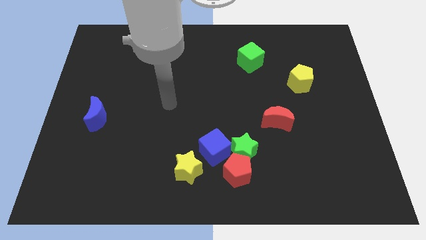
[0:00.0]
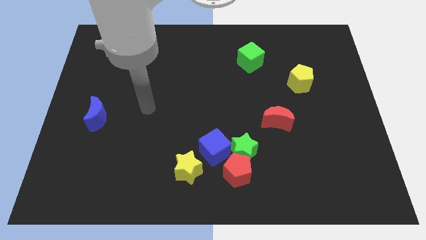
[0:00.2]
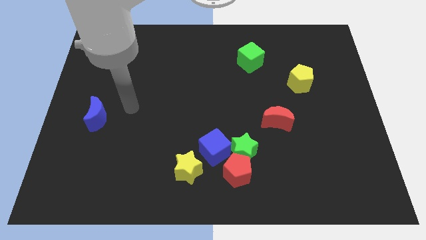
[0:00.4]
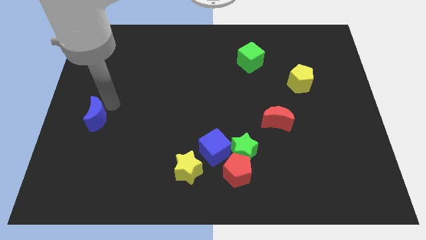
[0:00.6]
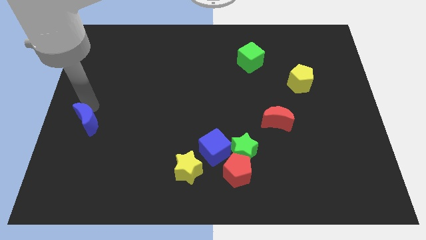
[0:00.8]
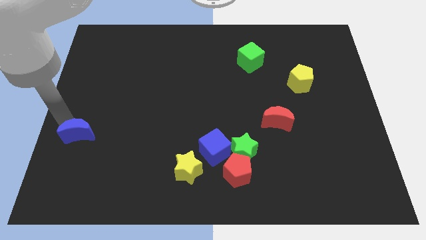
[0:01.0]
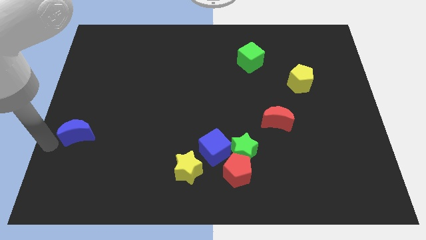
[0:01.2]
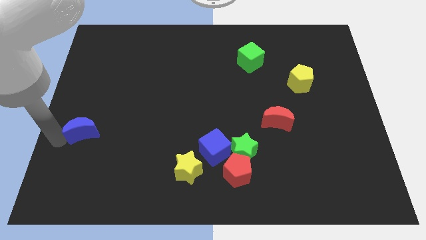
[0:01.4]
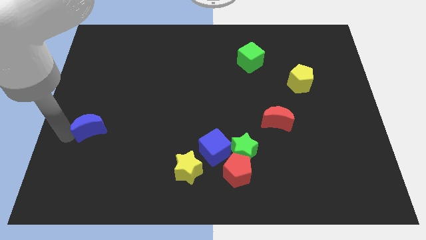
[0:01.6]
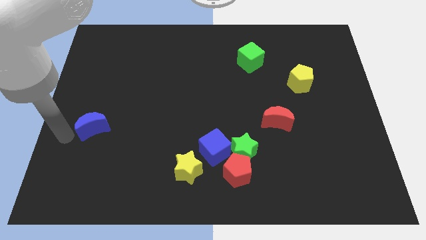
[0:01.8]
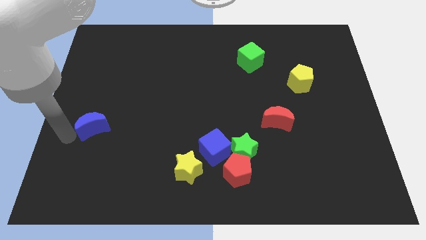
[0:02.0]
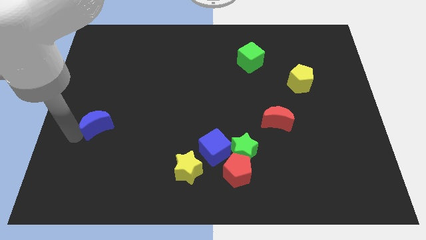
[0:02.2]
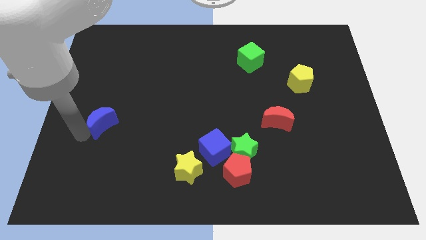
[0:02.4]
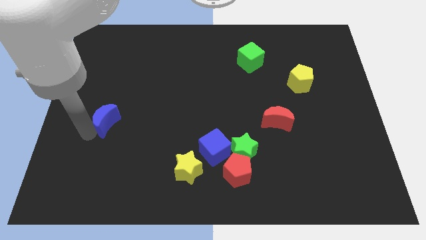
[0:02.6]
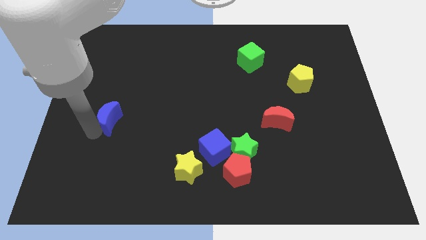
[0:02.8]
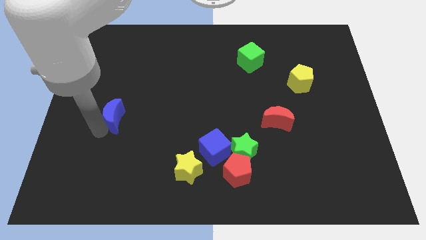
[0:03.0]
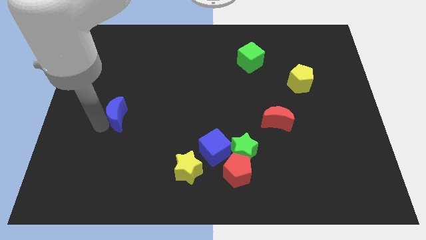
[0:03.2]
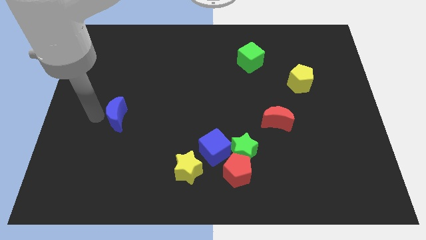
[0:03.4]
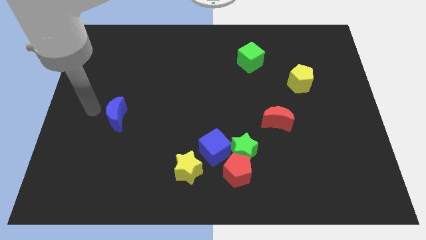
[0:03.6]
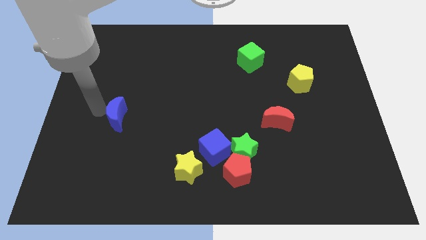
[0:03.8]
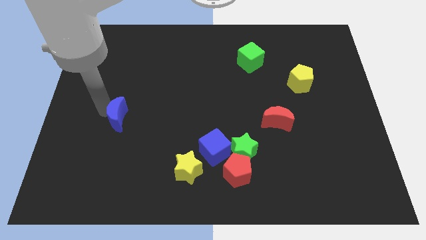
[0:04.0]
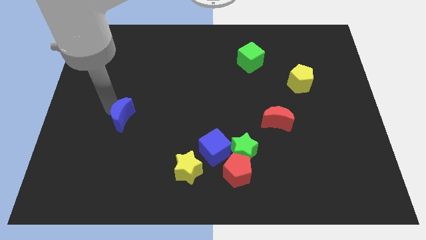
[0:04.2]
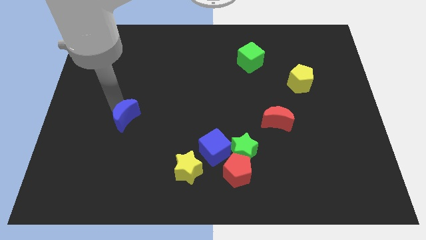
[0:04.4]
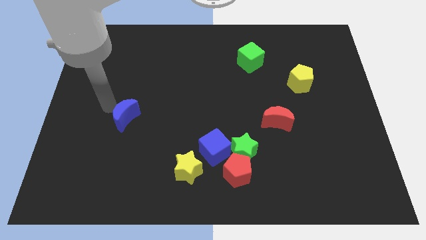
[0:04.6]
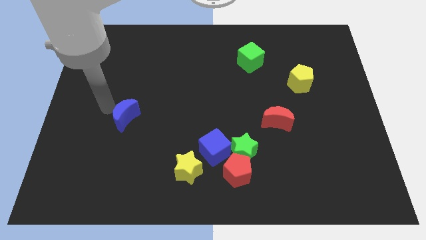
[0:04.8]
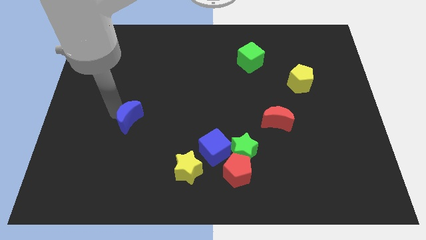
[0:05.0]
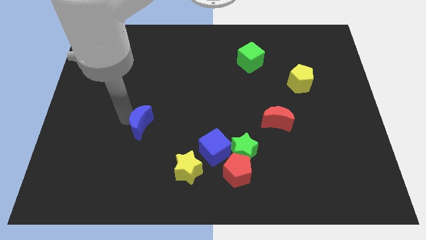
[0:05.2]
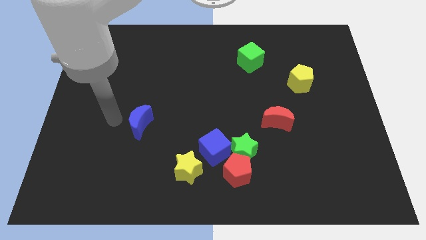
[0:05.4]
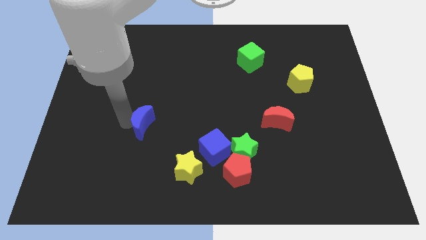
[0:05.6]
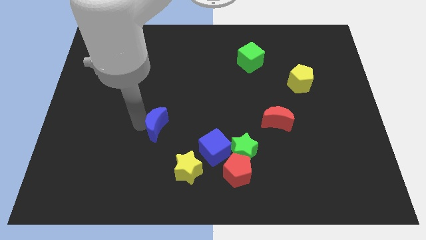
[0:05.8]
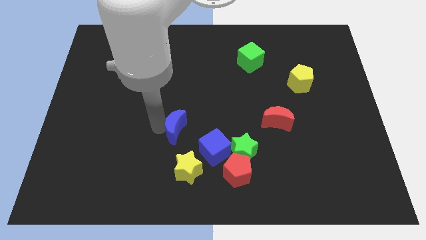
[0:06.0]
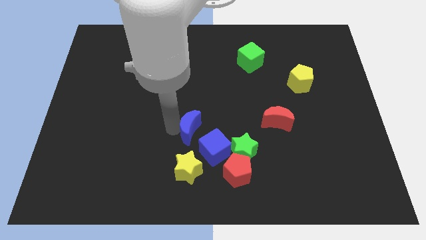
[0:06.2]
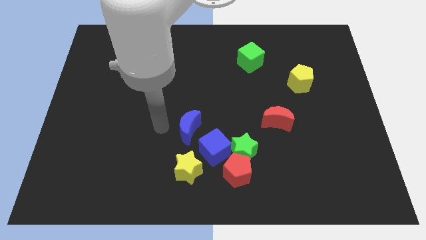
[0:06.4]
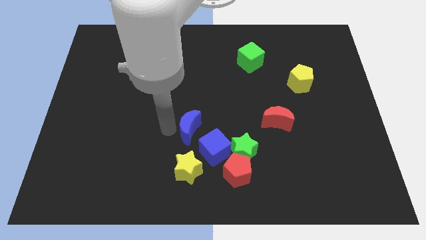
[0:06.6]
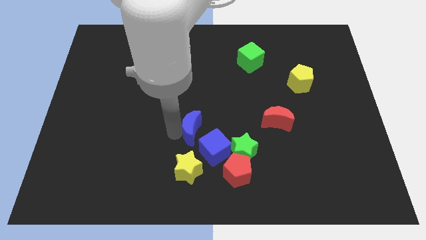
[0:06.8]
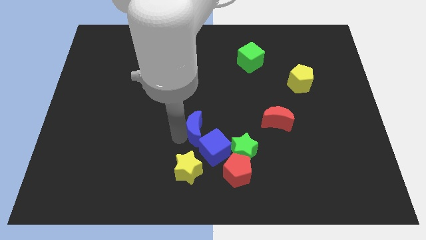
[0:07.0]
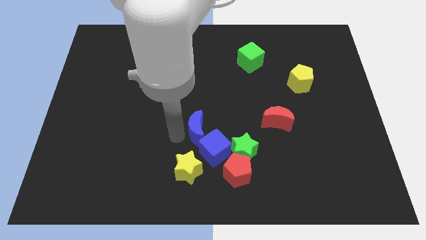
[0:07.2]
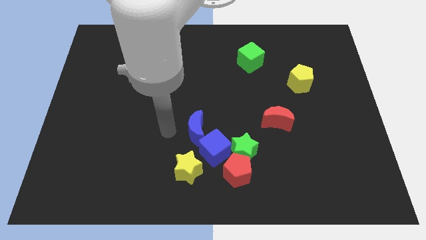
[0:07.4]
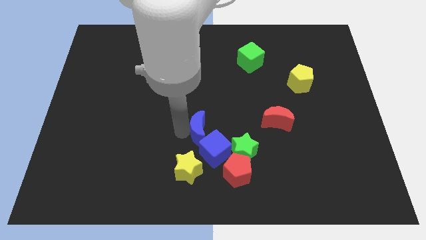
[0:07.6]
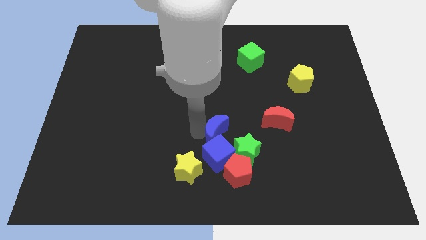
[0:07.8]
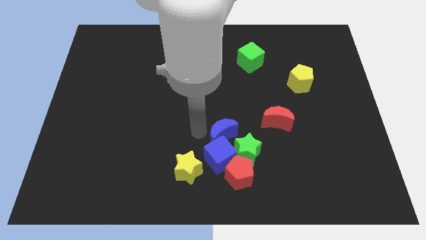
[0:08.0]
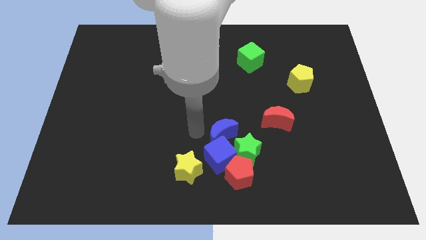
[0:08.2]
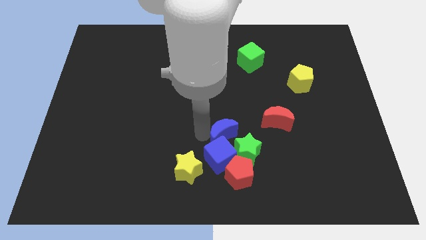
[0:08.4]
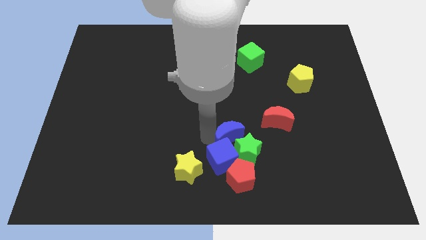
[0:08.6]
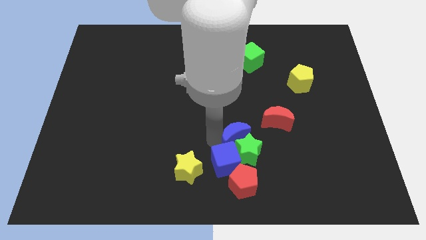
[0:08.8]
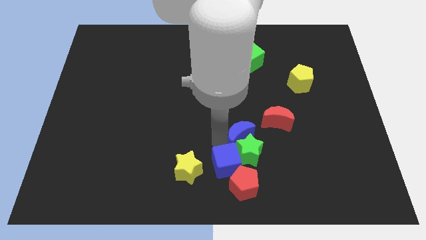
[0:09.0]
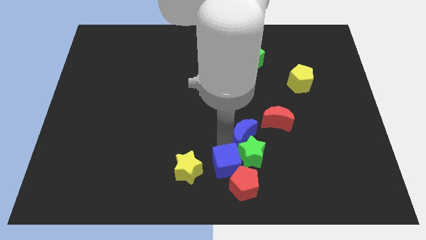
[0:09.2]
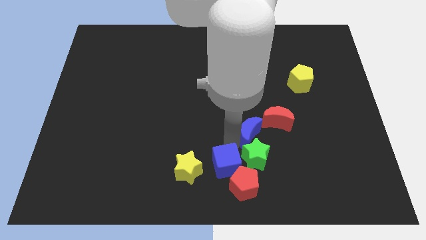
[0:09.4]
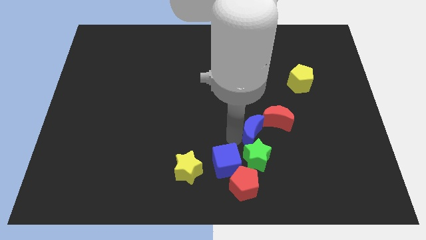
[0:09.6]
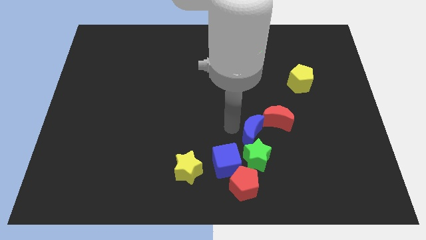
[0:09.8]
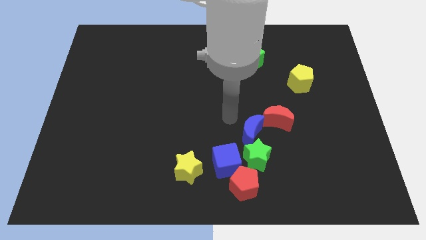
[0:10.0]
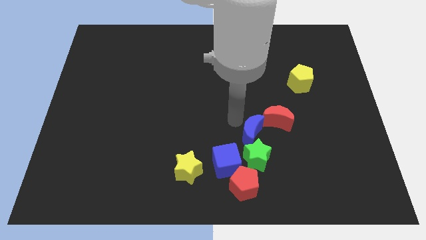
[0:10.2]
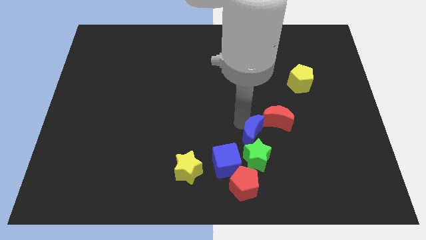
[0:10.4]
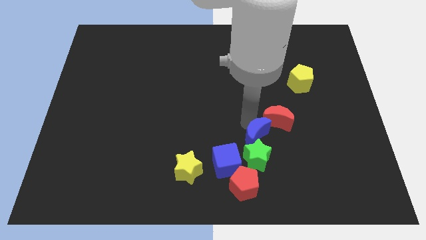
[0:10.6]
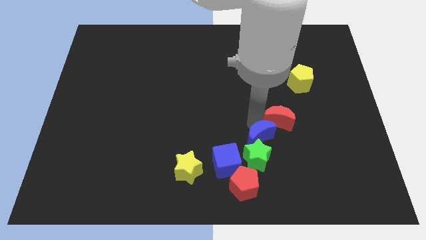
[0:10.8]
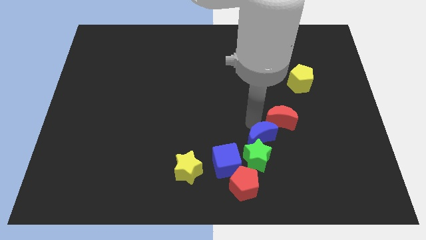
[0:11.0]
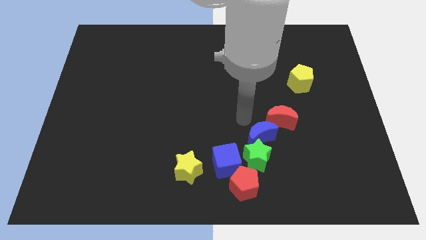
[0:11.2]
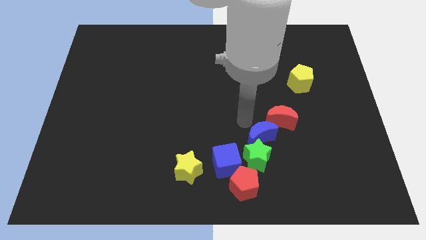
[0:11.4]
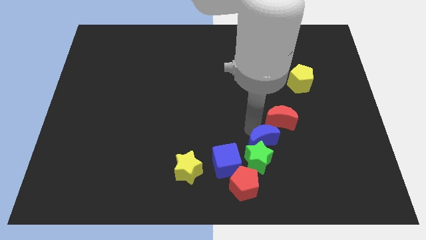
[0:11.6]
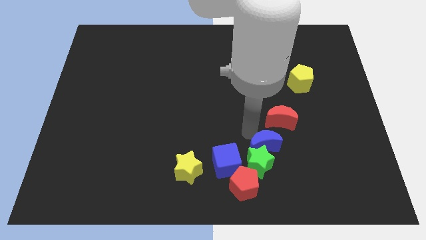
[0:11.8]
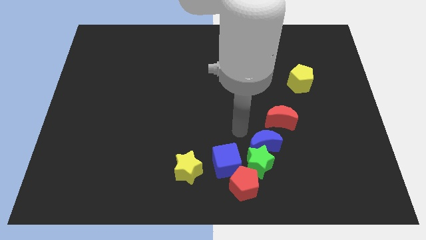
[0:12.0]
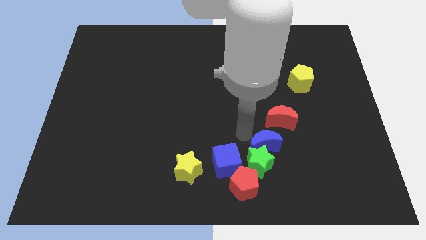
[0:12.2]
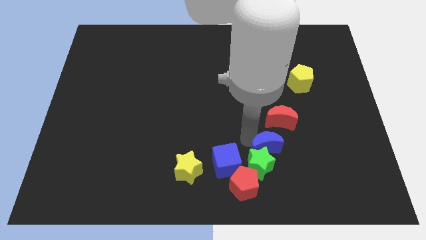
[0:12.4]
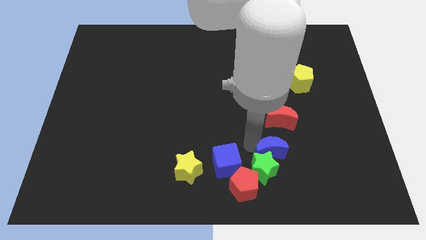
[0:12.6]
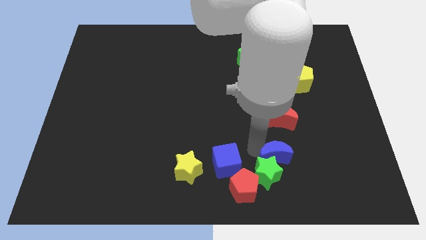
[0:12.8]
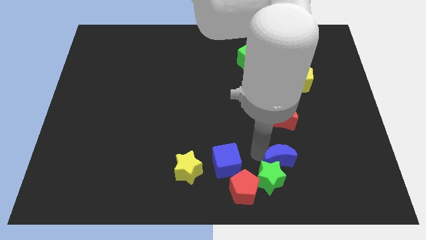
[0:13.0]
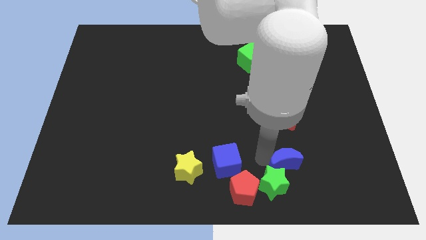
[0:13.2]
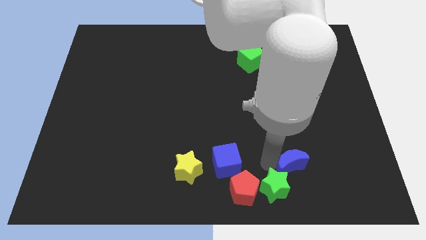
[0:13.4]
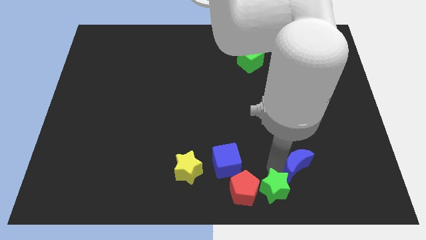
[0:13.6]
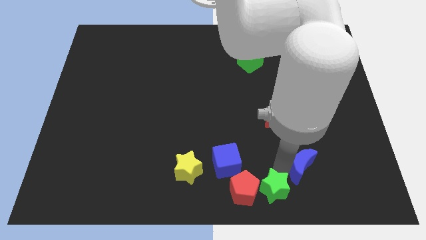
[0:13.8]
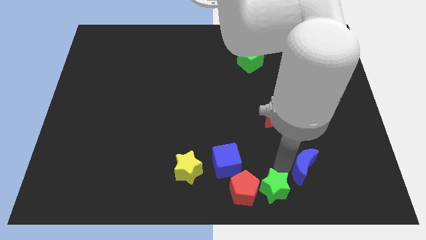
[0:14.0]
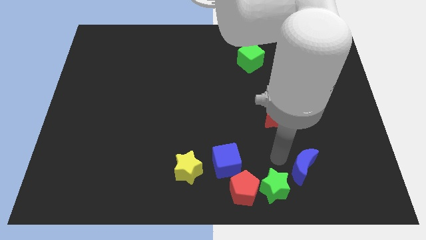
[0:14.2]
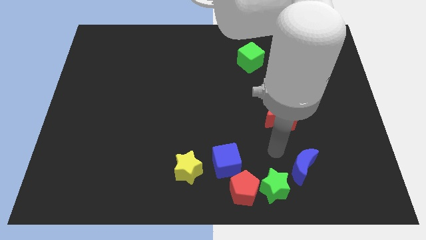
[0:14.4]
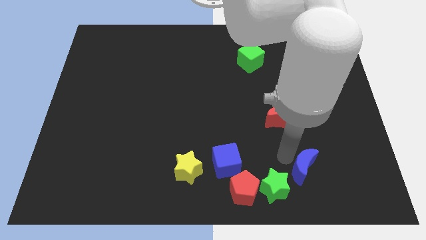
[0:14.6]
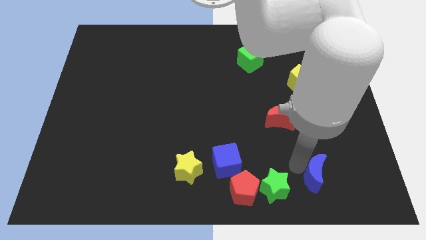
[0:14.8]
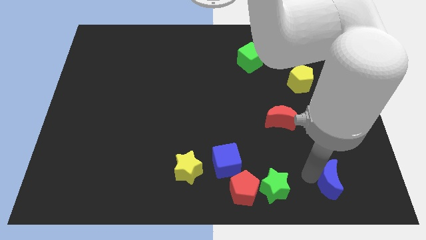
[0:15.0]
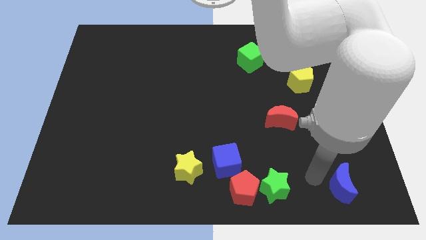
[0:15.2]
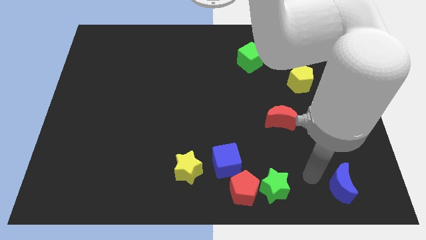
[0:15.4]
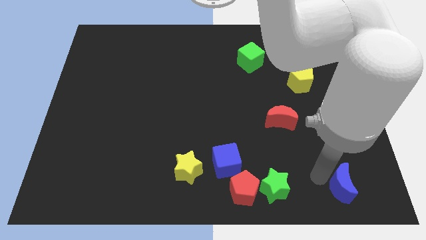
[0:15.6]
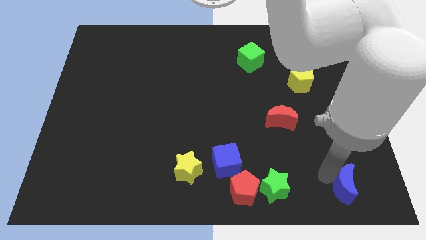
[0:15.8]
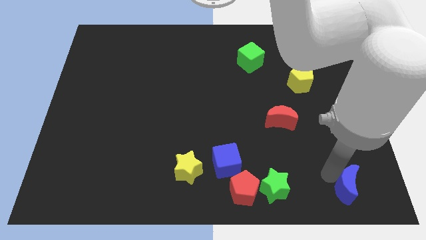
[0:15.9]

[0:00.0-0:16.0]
slide the blue moon to the bottom right corner

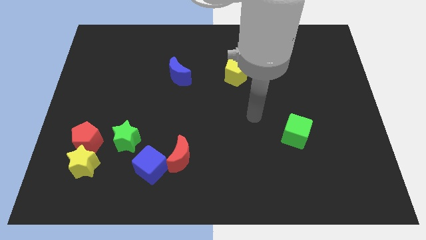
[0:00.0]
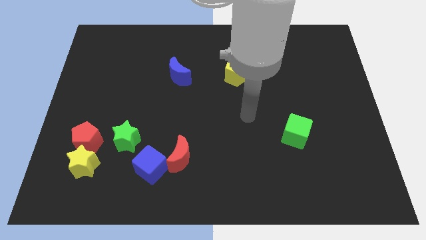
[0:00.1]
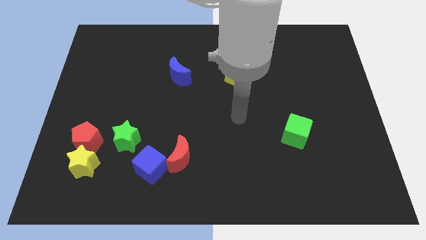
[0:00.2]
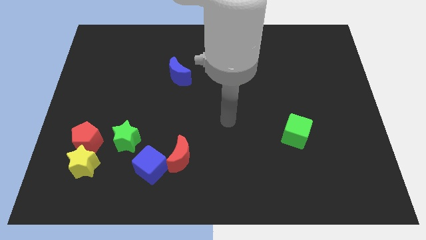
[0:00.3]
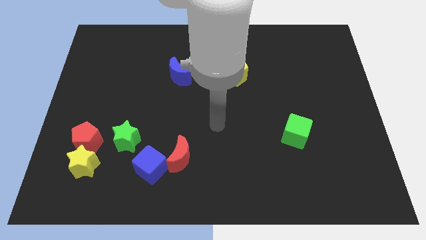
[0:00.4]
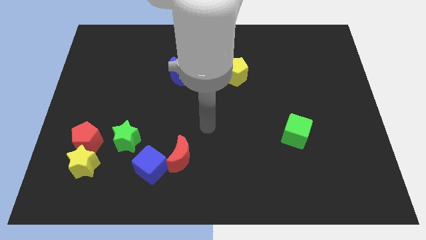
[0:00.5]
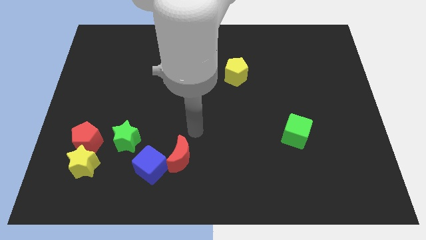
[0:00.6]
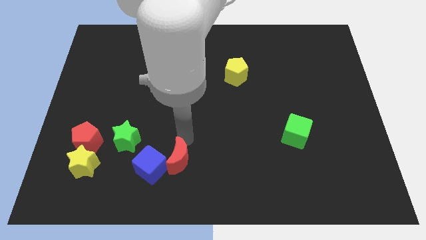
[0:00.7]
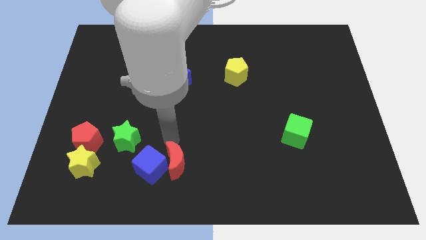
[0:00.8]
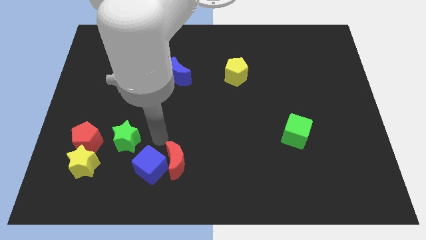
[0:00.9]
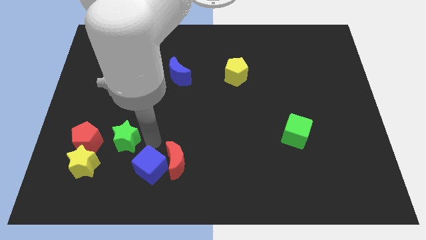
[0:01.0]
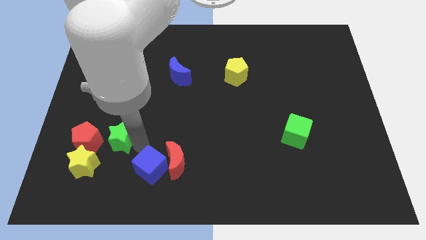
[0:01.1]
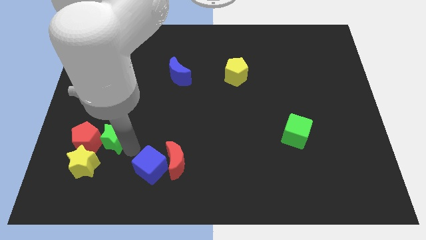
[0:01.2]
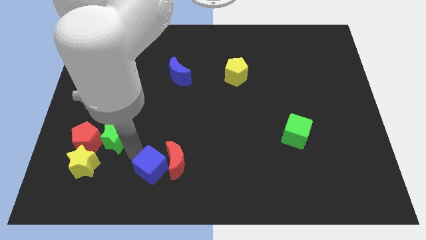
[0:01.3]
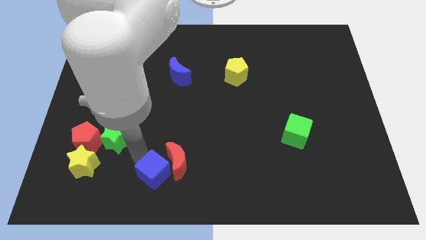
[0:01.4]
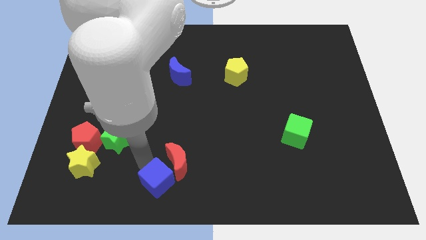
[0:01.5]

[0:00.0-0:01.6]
push the blue cube to the bottom side
